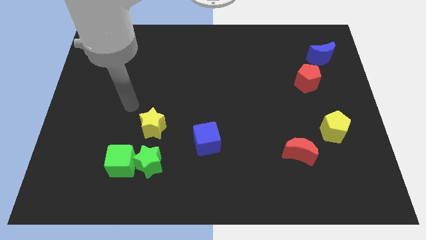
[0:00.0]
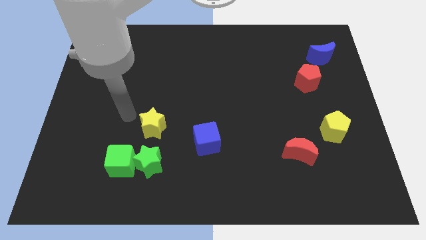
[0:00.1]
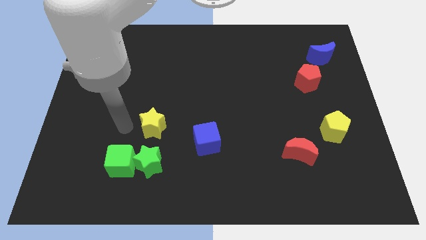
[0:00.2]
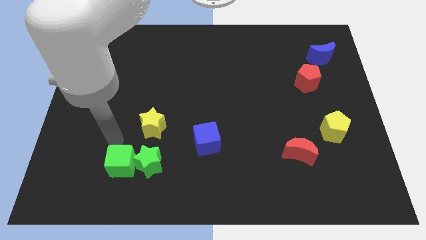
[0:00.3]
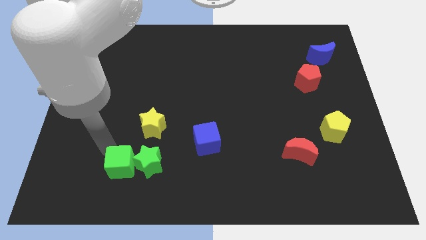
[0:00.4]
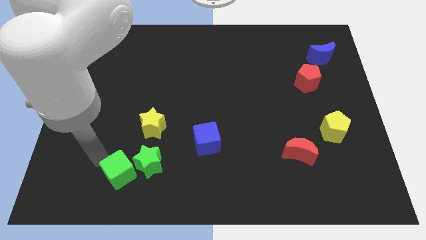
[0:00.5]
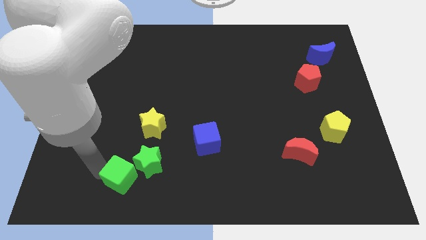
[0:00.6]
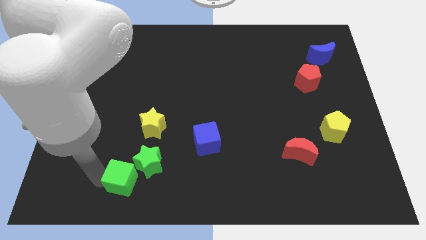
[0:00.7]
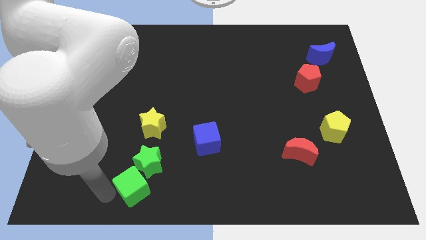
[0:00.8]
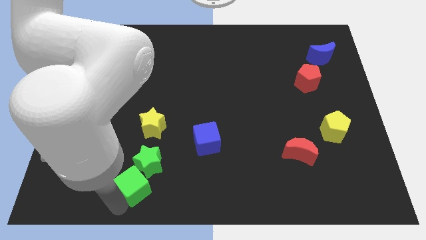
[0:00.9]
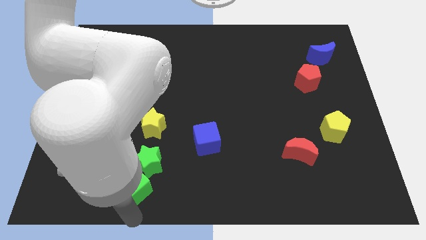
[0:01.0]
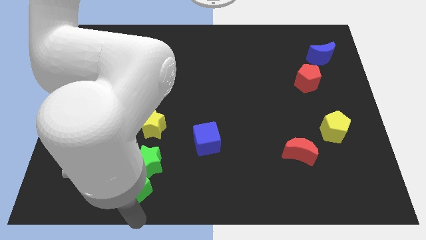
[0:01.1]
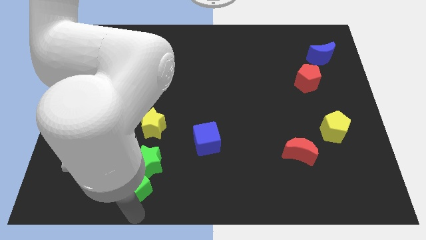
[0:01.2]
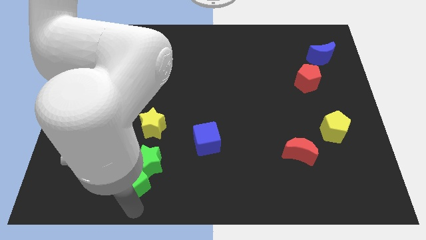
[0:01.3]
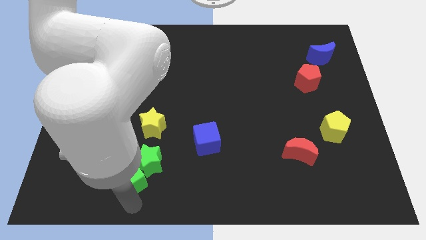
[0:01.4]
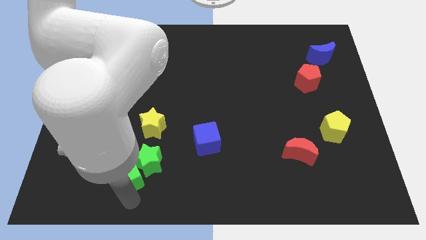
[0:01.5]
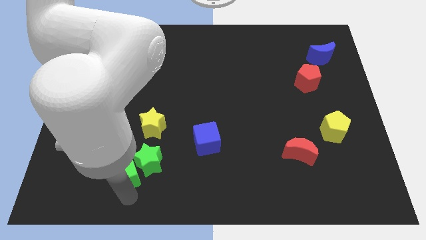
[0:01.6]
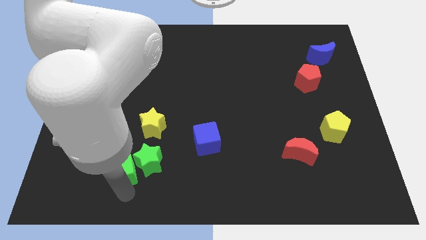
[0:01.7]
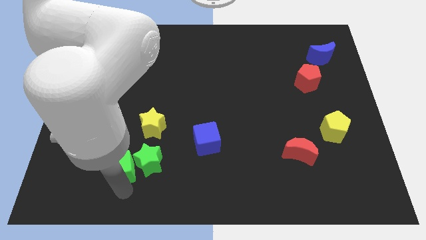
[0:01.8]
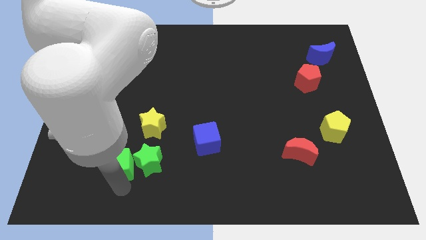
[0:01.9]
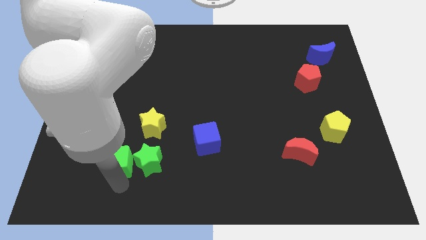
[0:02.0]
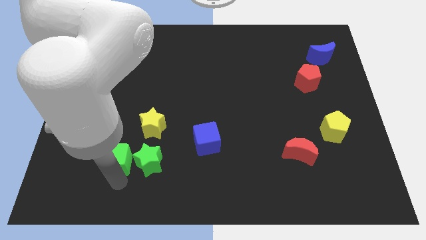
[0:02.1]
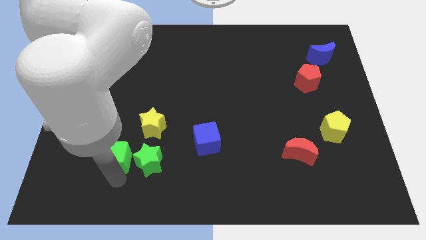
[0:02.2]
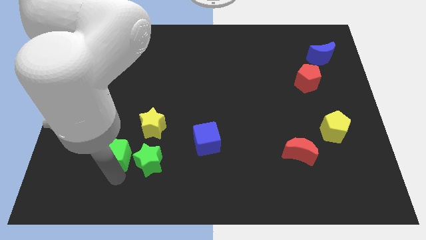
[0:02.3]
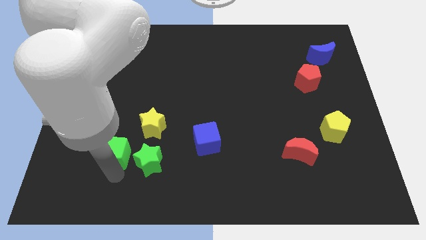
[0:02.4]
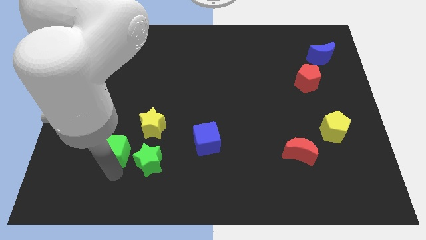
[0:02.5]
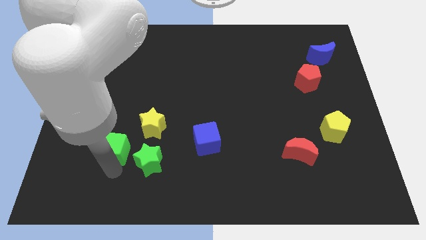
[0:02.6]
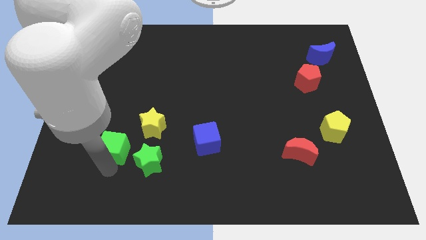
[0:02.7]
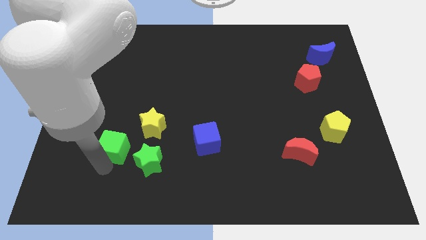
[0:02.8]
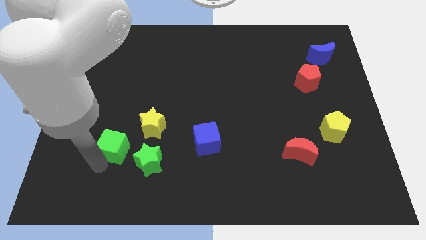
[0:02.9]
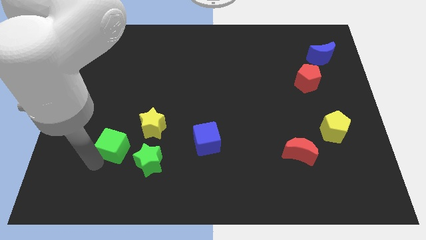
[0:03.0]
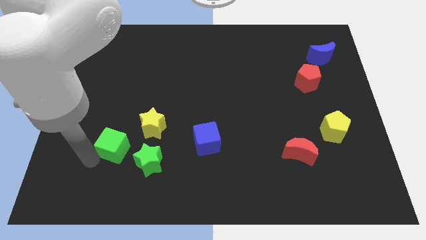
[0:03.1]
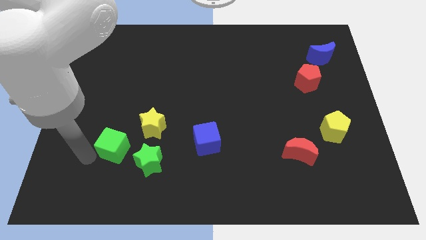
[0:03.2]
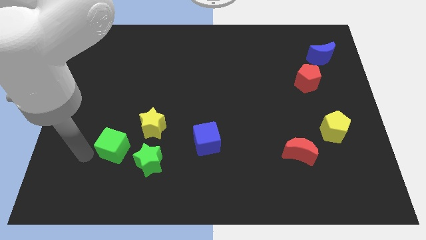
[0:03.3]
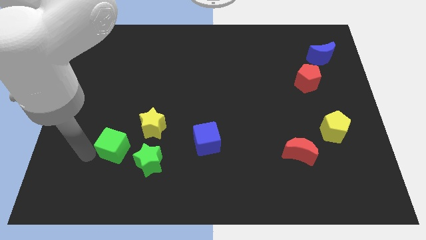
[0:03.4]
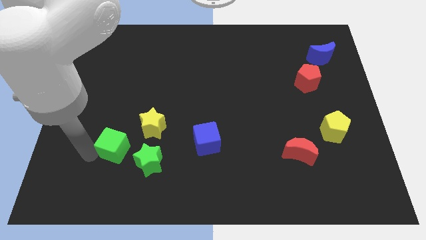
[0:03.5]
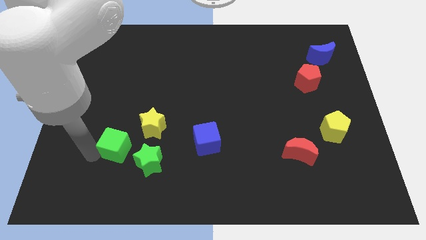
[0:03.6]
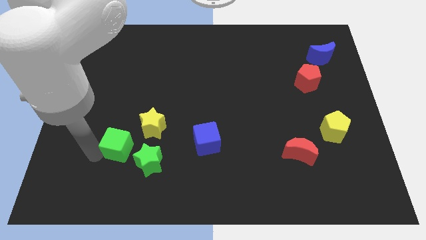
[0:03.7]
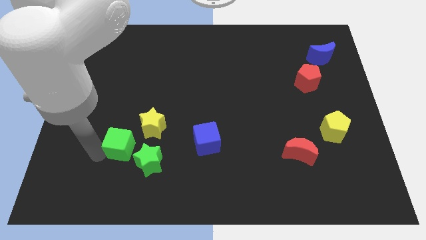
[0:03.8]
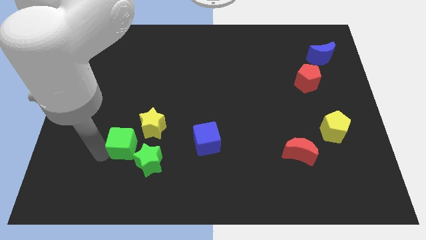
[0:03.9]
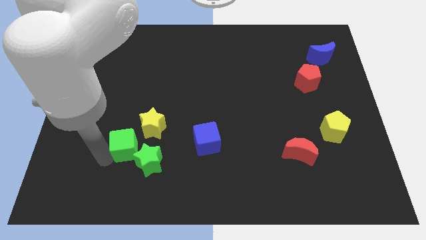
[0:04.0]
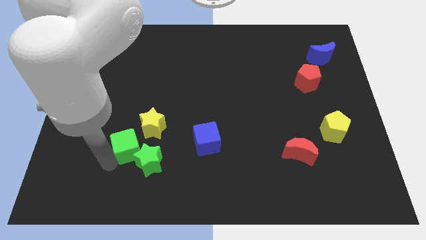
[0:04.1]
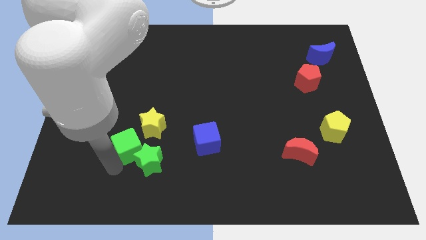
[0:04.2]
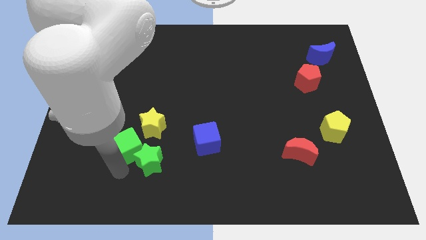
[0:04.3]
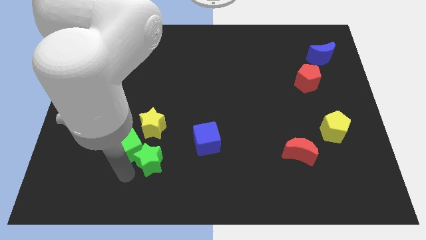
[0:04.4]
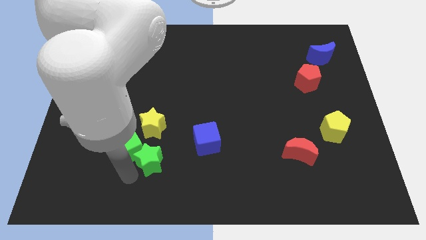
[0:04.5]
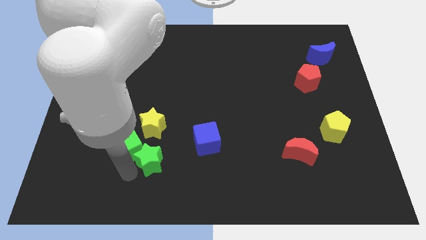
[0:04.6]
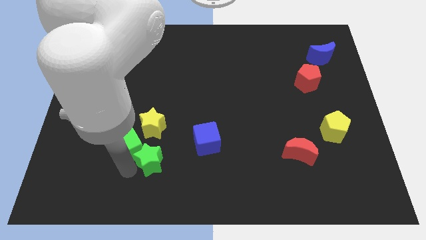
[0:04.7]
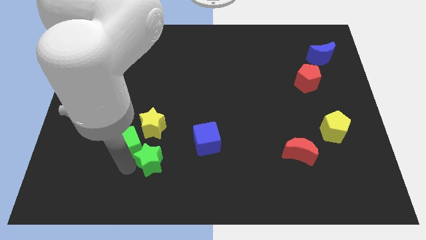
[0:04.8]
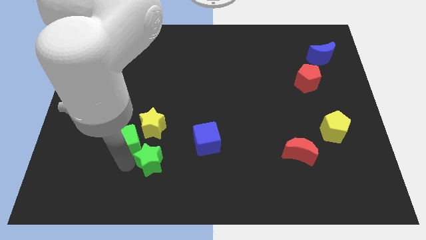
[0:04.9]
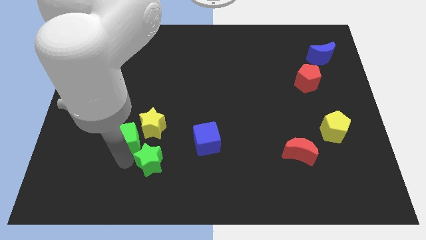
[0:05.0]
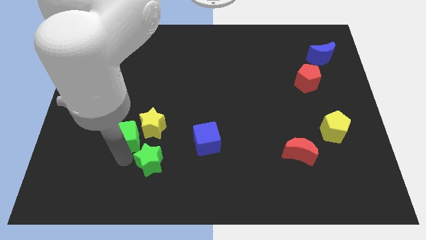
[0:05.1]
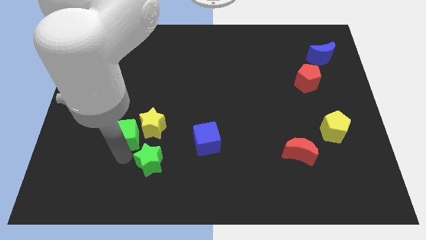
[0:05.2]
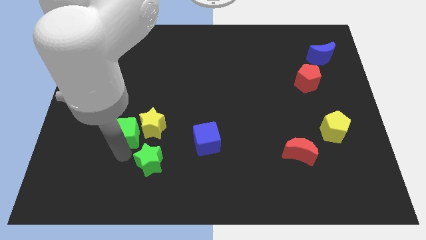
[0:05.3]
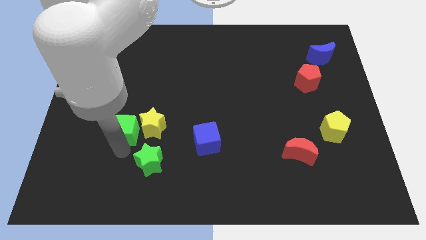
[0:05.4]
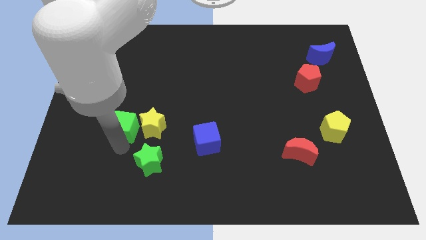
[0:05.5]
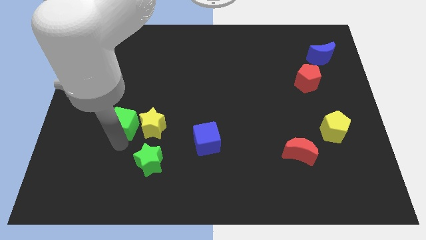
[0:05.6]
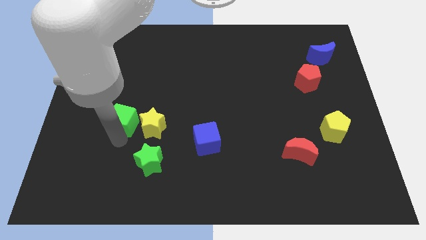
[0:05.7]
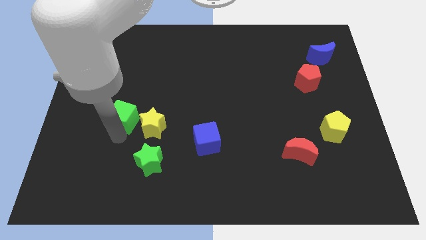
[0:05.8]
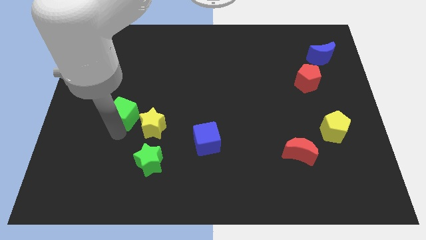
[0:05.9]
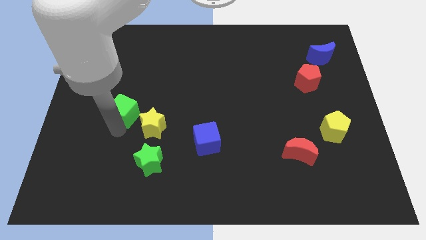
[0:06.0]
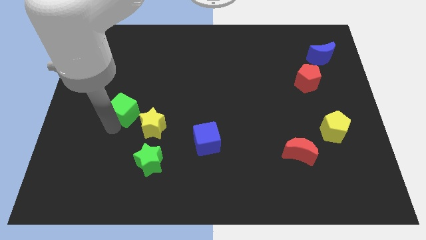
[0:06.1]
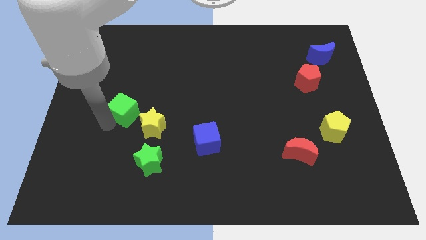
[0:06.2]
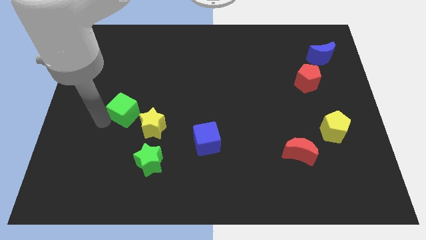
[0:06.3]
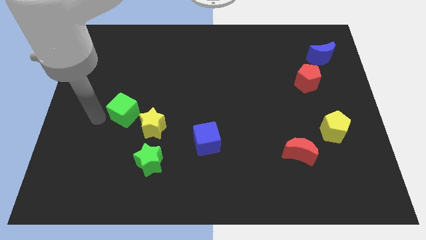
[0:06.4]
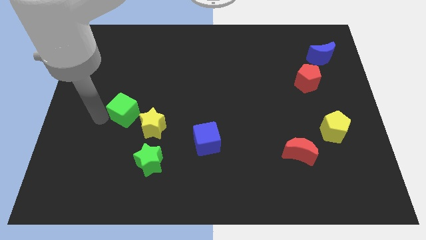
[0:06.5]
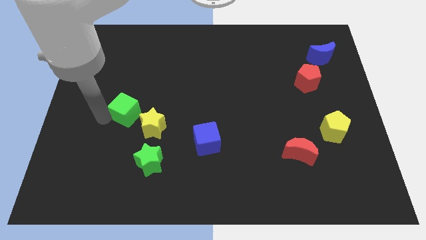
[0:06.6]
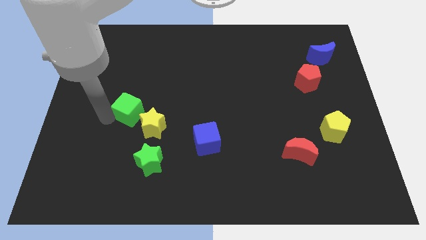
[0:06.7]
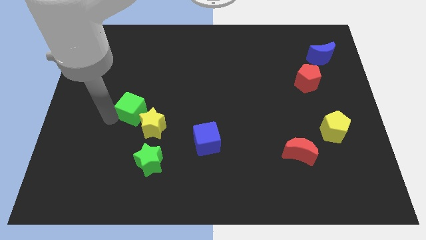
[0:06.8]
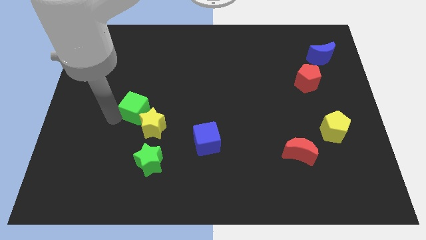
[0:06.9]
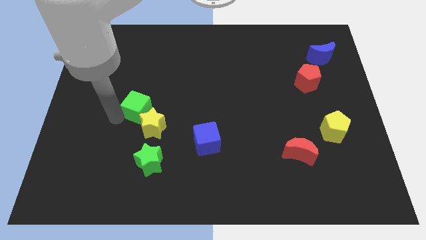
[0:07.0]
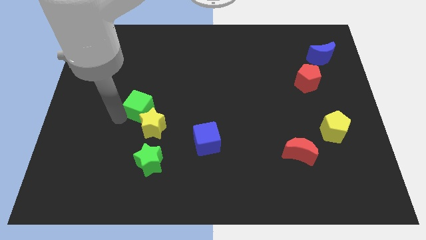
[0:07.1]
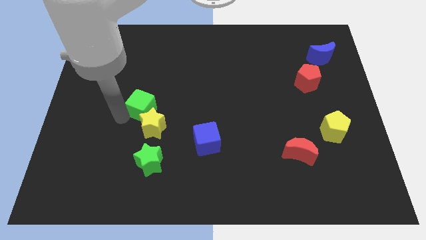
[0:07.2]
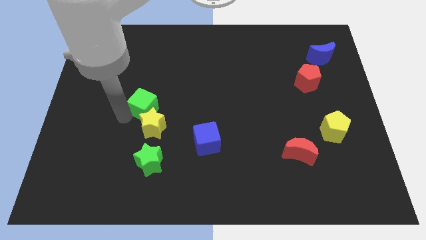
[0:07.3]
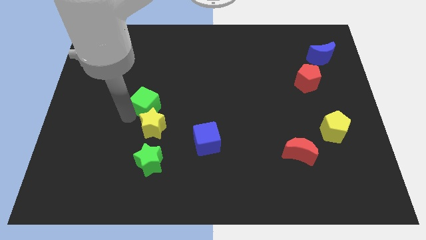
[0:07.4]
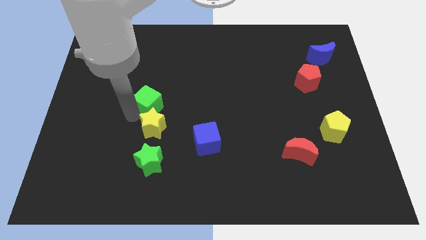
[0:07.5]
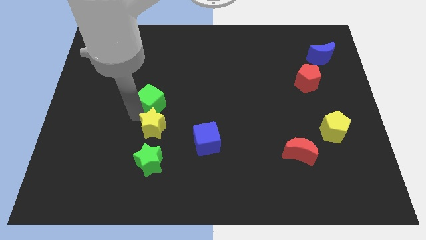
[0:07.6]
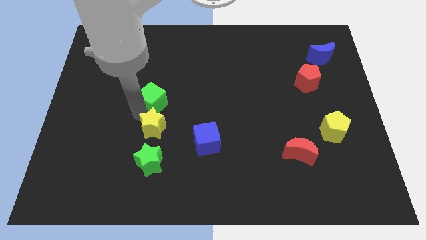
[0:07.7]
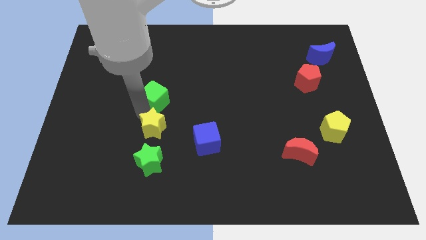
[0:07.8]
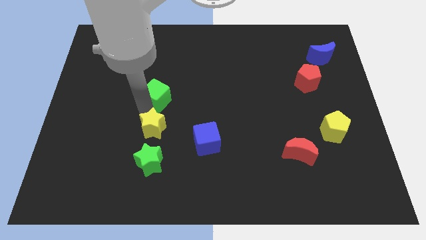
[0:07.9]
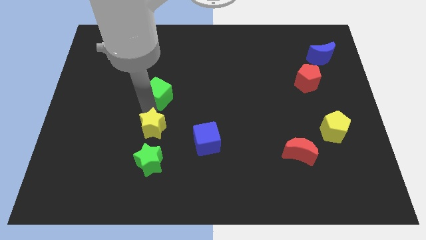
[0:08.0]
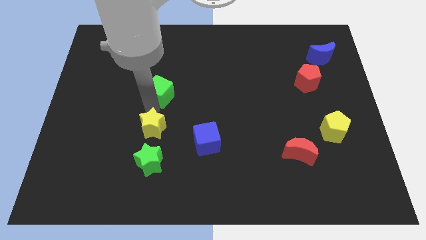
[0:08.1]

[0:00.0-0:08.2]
put the green cube to the middle of the board
